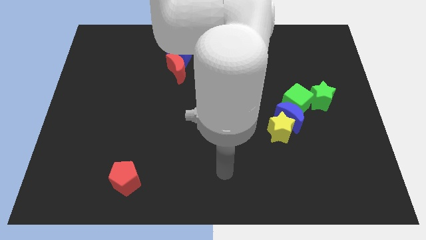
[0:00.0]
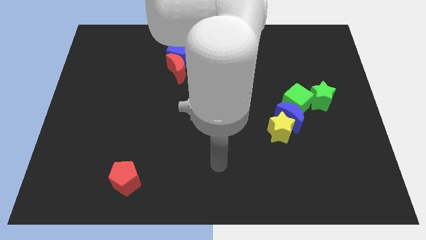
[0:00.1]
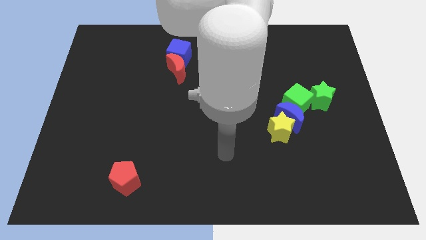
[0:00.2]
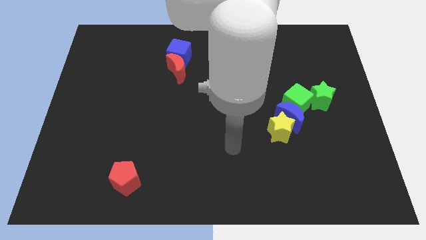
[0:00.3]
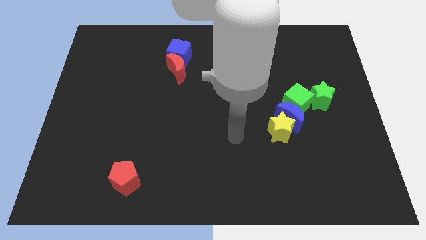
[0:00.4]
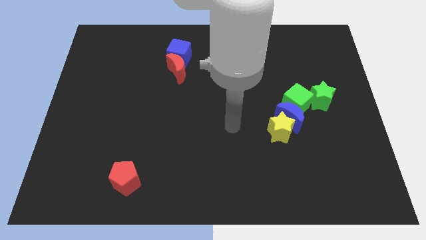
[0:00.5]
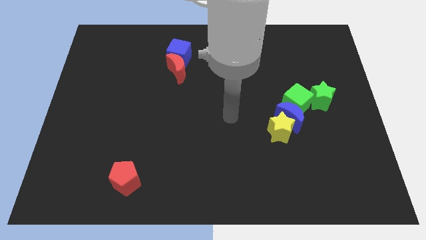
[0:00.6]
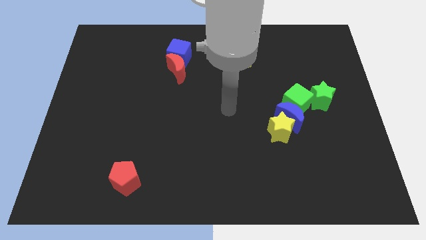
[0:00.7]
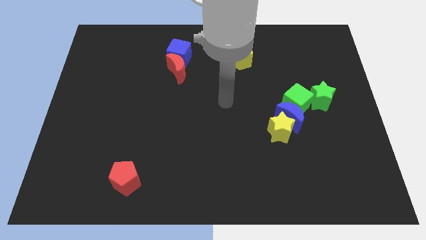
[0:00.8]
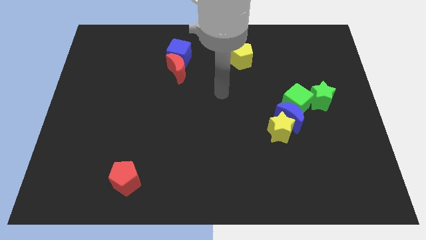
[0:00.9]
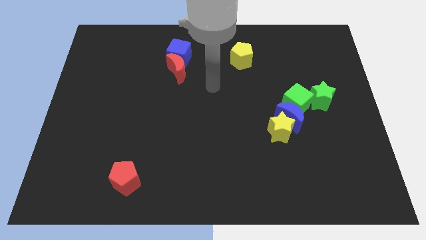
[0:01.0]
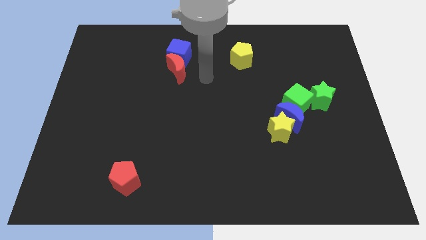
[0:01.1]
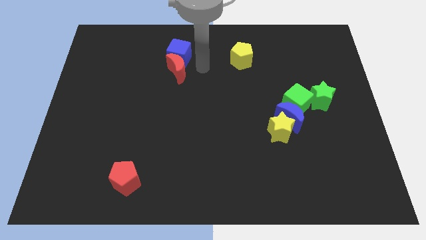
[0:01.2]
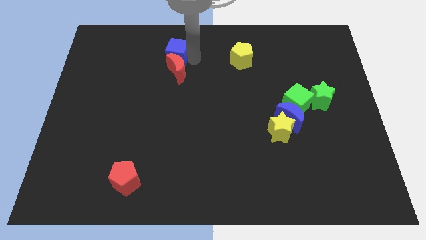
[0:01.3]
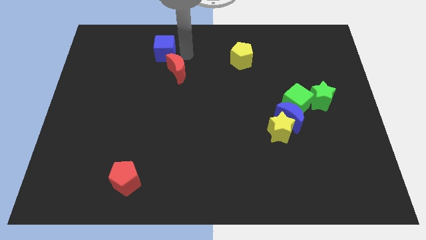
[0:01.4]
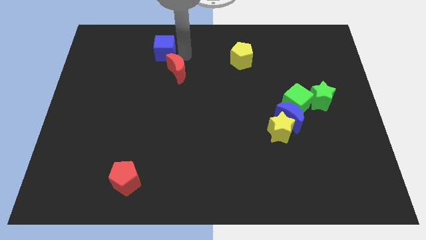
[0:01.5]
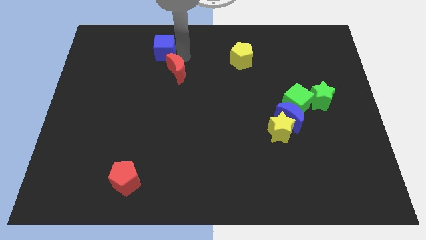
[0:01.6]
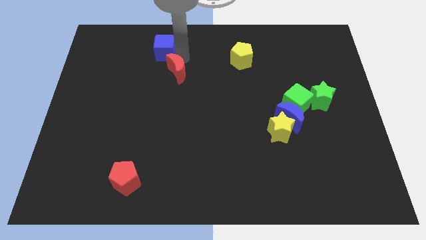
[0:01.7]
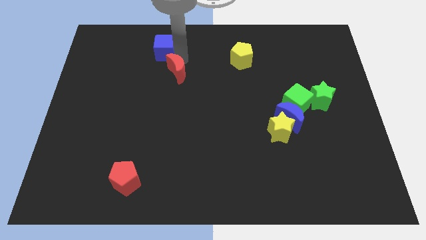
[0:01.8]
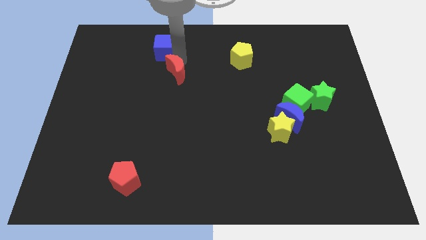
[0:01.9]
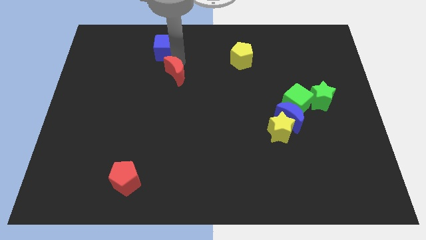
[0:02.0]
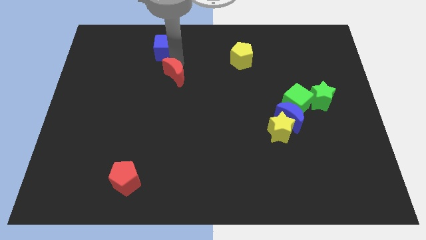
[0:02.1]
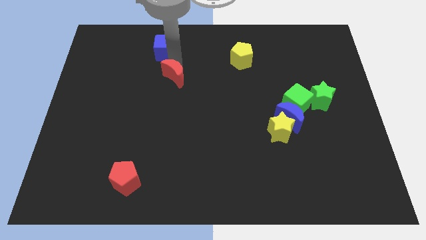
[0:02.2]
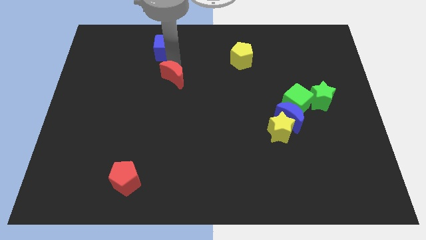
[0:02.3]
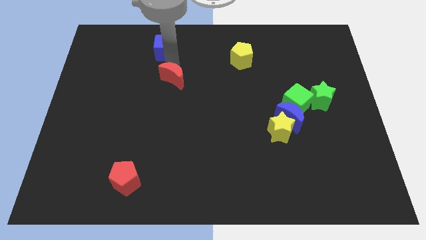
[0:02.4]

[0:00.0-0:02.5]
pull the red moon apart from the blue cube

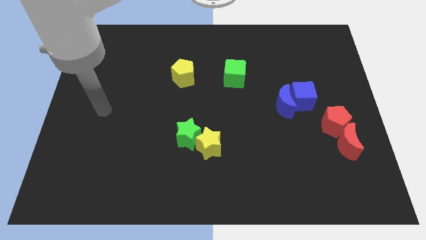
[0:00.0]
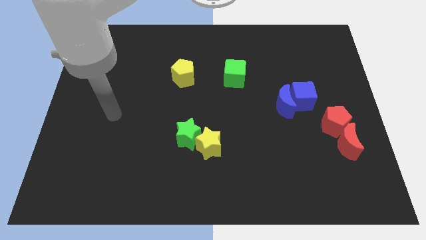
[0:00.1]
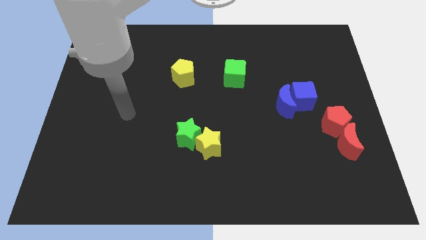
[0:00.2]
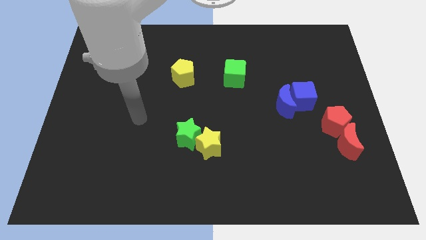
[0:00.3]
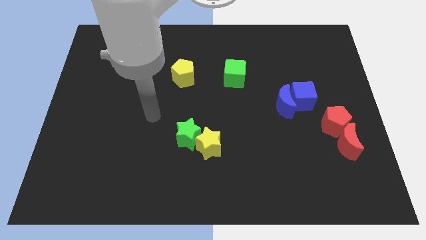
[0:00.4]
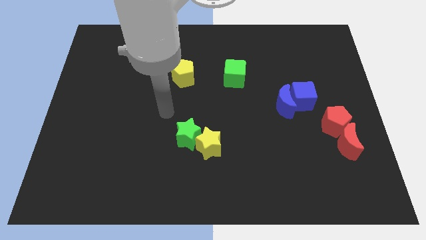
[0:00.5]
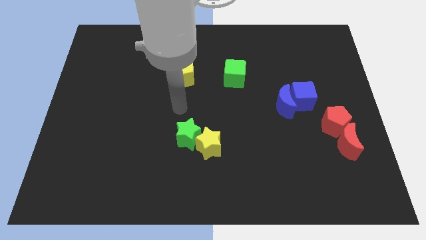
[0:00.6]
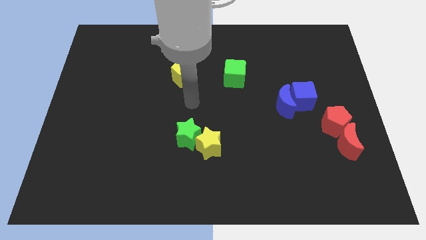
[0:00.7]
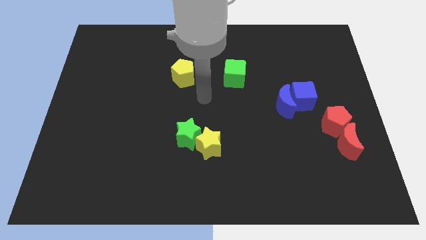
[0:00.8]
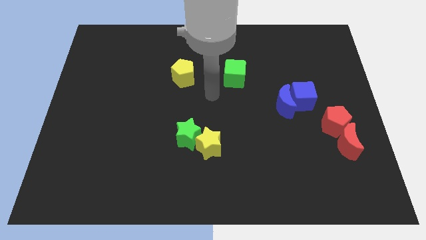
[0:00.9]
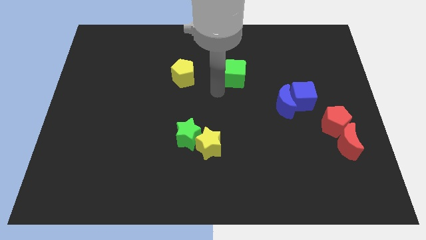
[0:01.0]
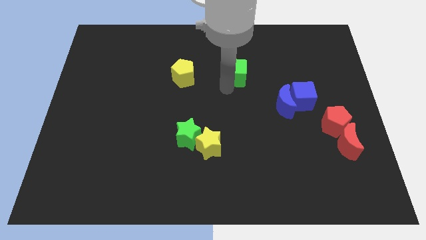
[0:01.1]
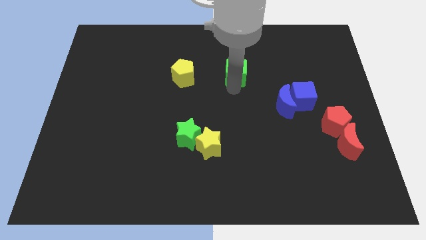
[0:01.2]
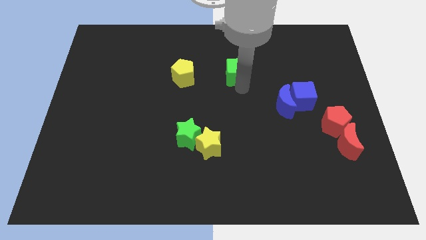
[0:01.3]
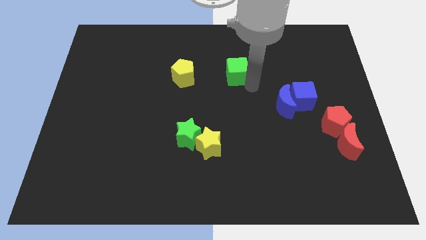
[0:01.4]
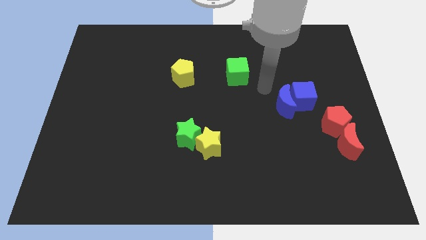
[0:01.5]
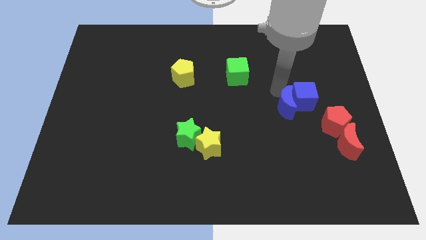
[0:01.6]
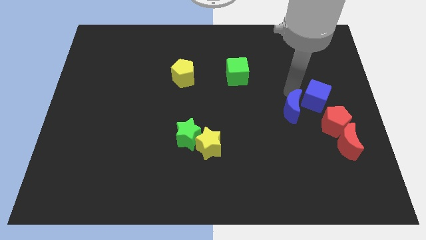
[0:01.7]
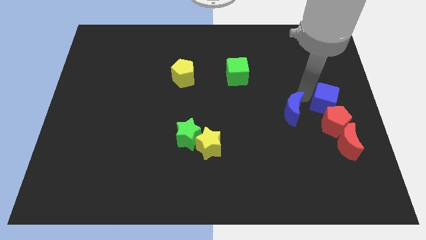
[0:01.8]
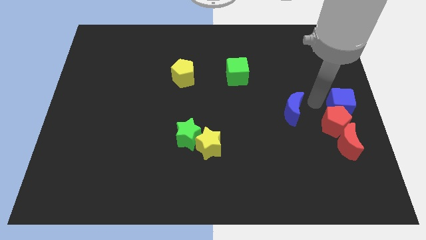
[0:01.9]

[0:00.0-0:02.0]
move the blue moon away from the blue cube

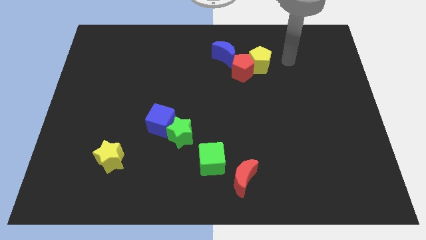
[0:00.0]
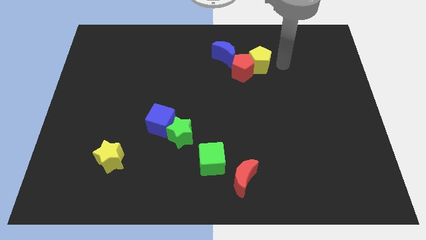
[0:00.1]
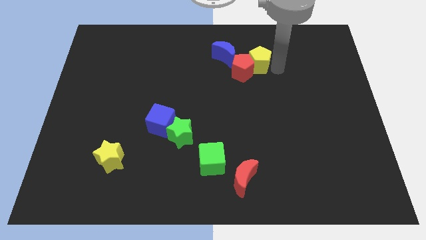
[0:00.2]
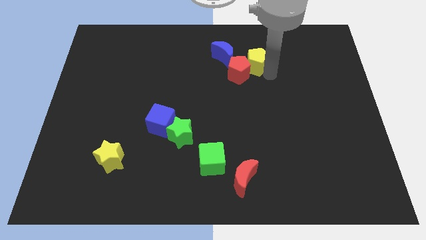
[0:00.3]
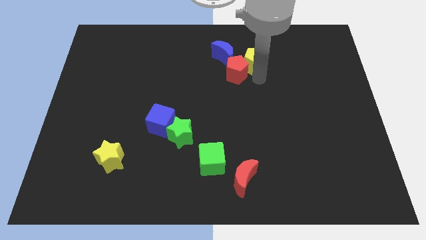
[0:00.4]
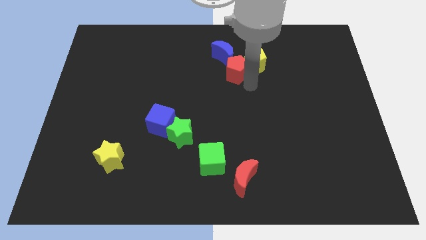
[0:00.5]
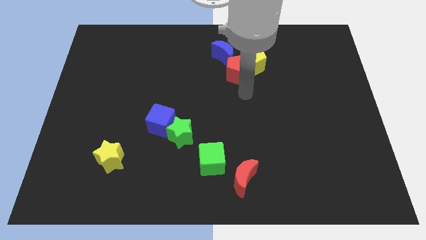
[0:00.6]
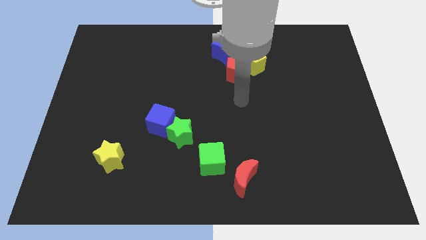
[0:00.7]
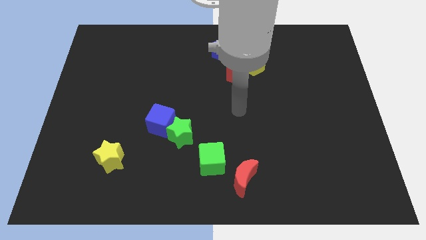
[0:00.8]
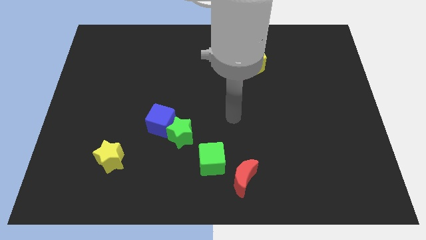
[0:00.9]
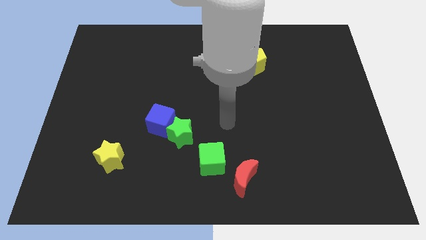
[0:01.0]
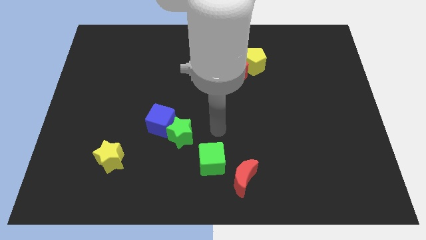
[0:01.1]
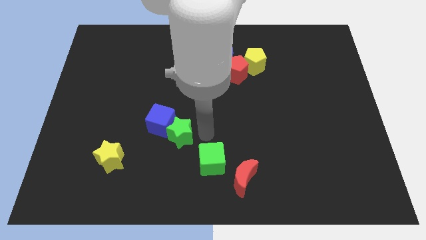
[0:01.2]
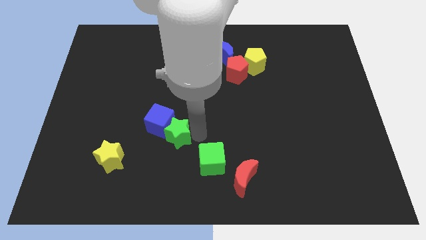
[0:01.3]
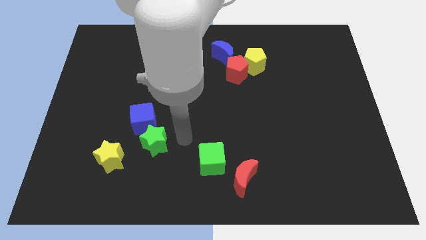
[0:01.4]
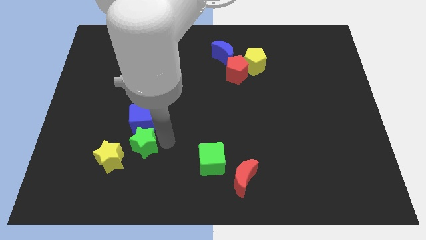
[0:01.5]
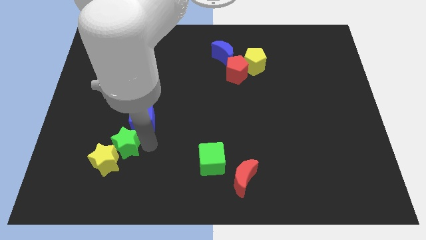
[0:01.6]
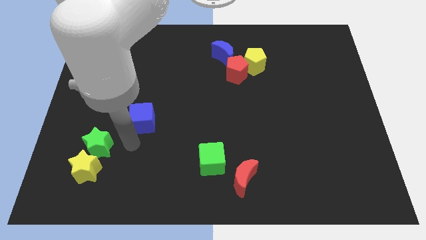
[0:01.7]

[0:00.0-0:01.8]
move the blue cube away from the green star

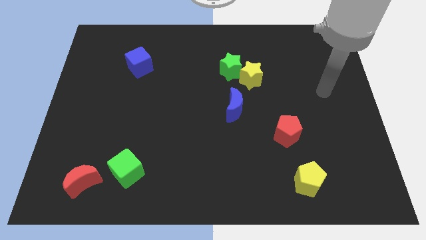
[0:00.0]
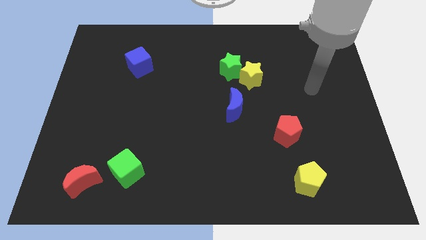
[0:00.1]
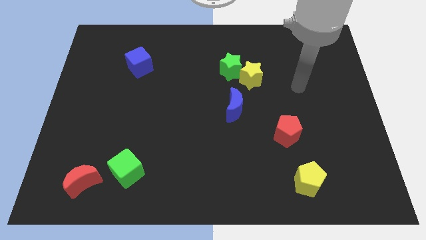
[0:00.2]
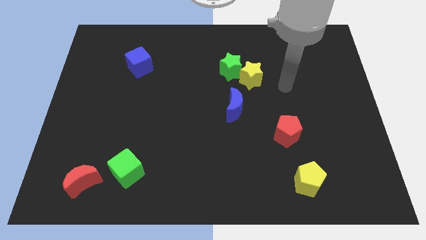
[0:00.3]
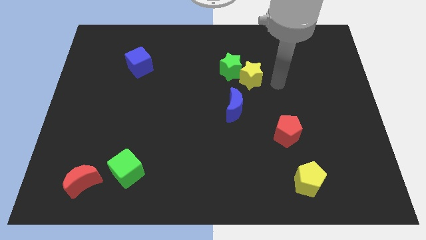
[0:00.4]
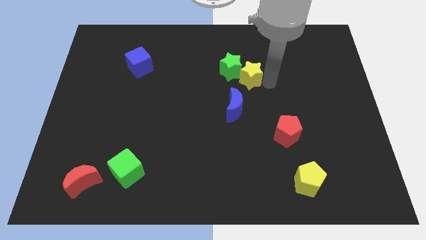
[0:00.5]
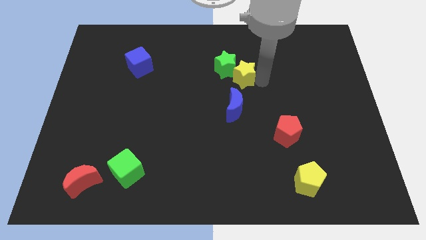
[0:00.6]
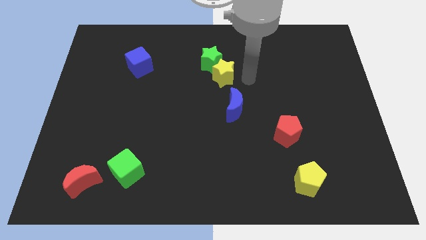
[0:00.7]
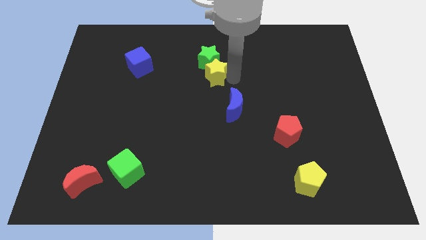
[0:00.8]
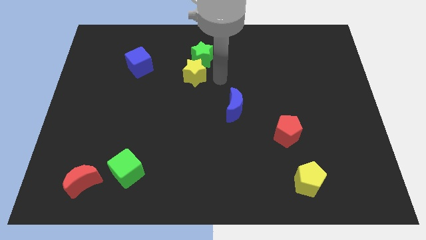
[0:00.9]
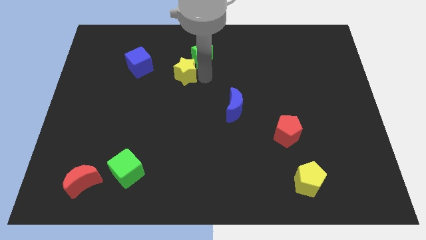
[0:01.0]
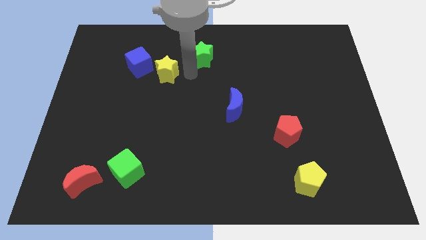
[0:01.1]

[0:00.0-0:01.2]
move the green star away from the yellow star

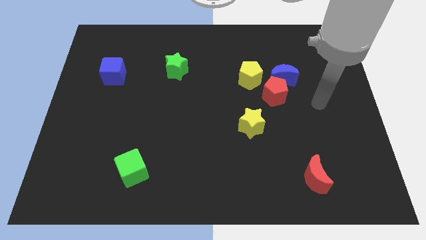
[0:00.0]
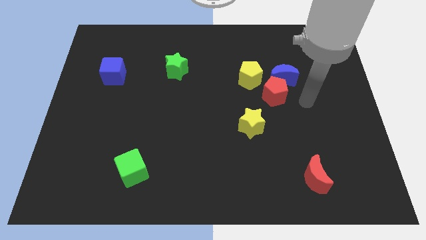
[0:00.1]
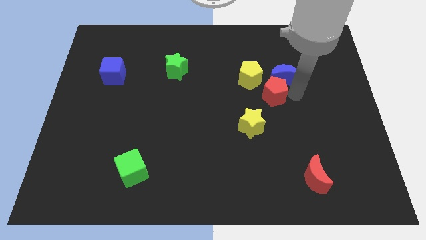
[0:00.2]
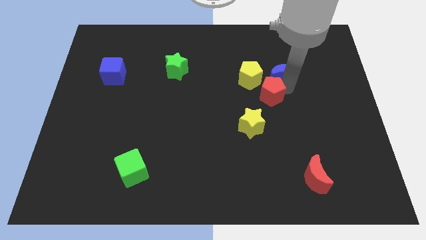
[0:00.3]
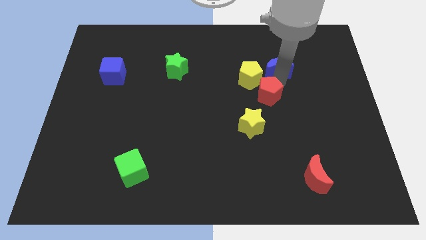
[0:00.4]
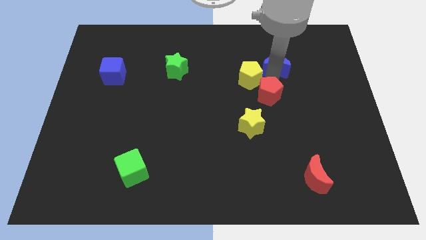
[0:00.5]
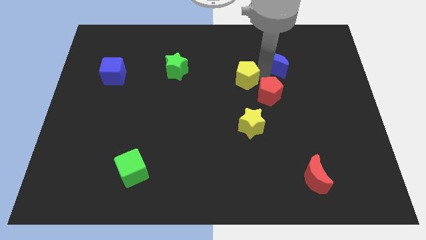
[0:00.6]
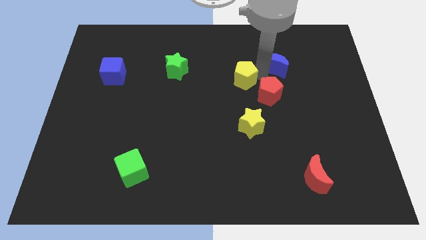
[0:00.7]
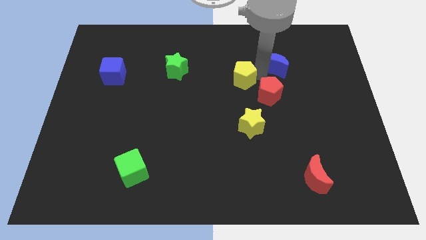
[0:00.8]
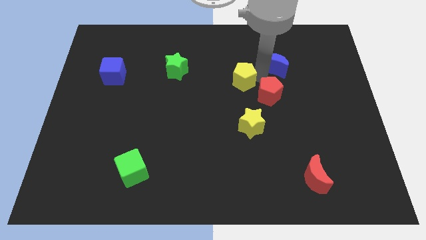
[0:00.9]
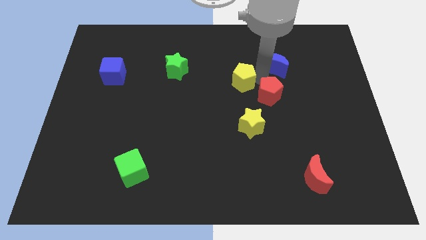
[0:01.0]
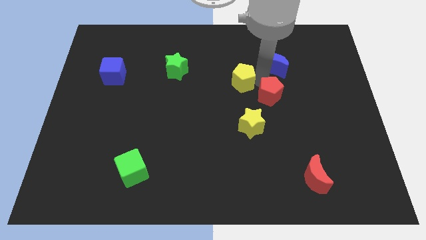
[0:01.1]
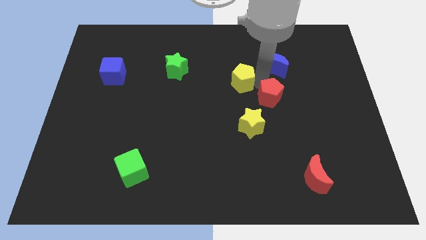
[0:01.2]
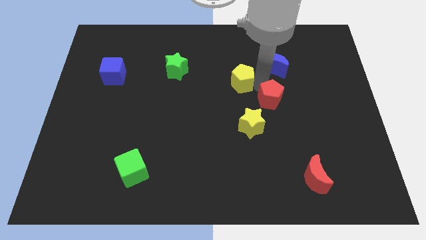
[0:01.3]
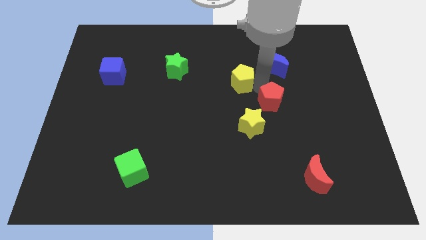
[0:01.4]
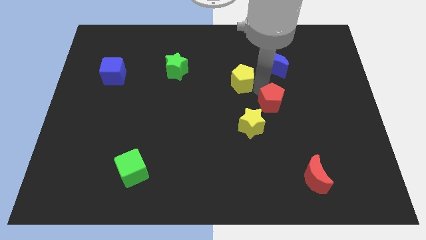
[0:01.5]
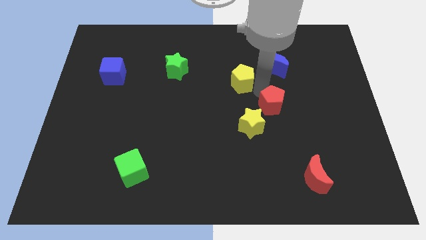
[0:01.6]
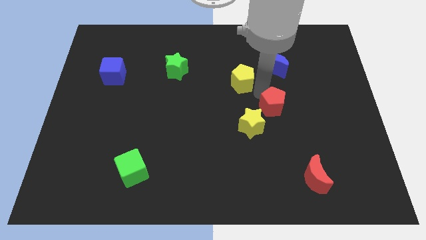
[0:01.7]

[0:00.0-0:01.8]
move the red pentagon away from the blue moon and yellow pentagon
